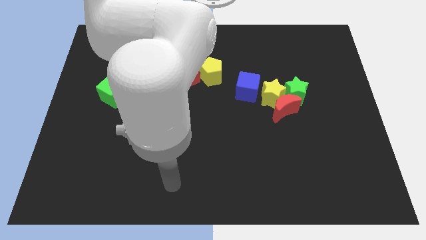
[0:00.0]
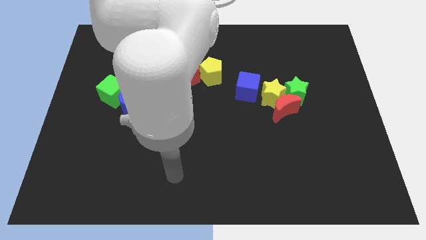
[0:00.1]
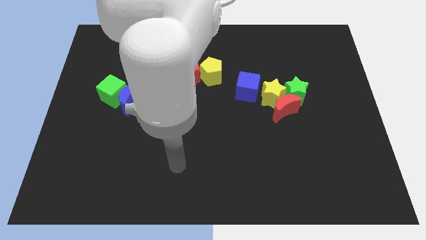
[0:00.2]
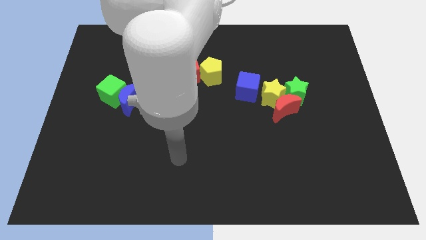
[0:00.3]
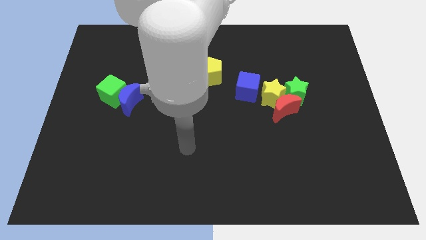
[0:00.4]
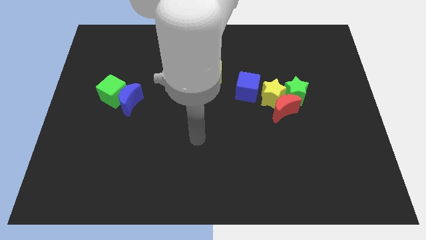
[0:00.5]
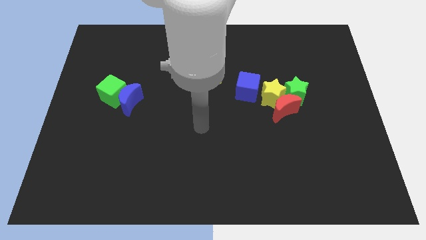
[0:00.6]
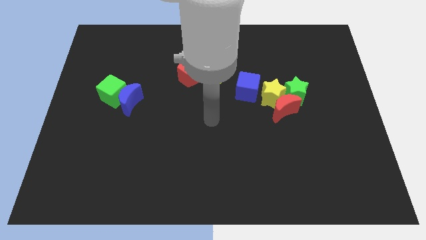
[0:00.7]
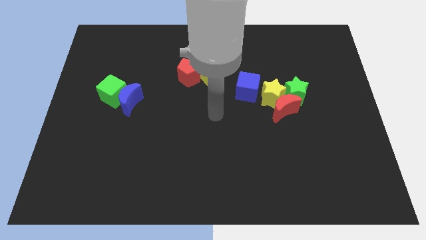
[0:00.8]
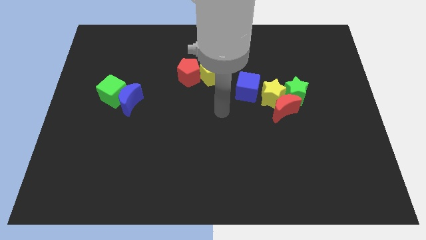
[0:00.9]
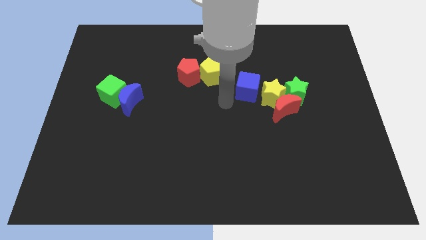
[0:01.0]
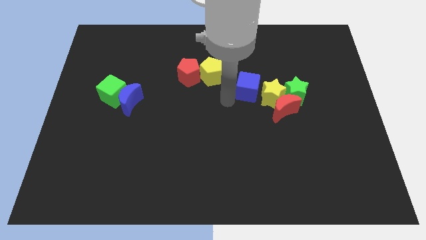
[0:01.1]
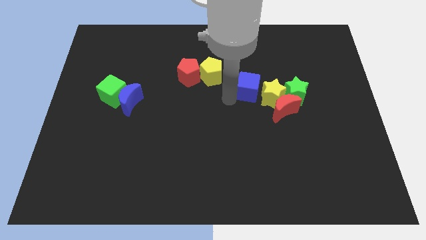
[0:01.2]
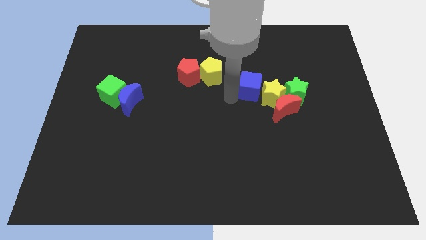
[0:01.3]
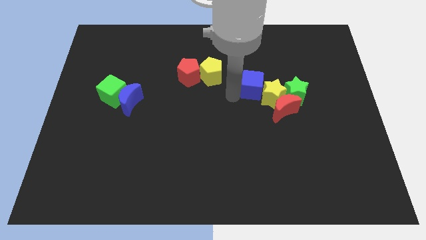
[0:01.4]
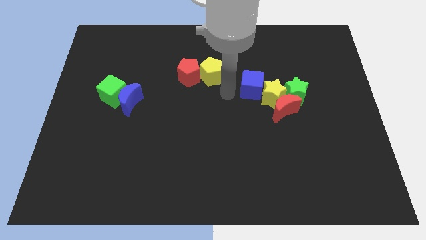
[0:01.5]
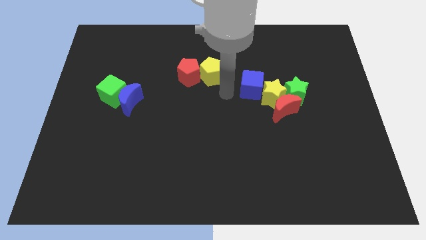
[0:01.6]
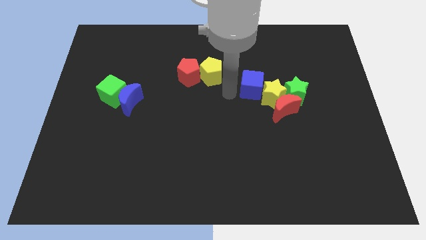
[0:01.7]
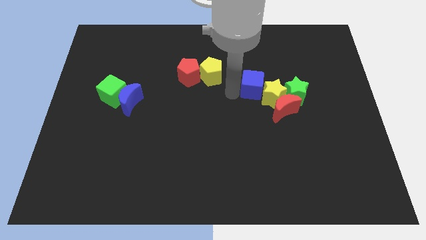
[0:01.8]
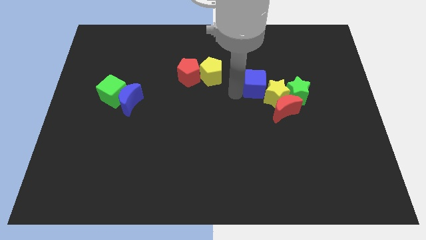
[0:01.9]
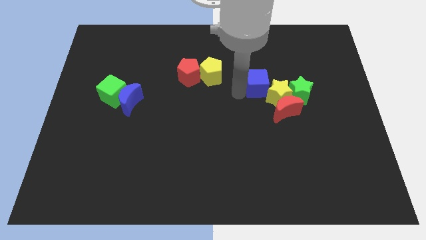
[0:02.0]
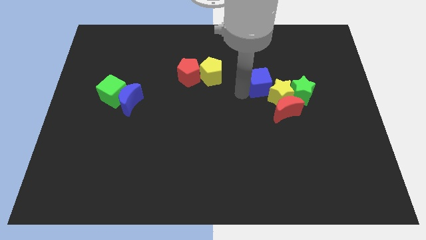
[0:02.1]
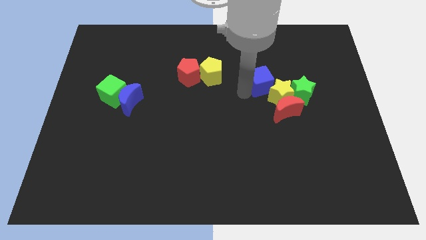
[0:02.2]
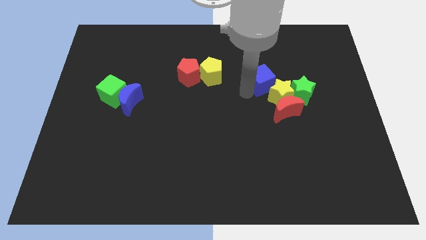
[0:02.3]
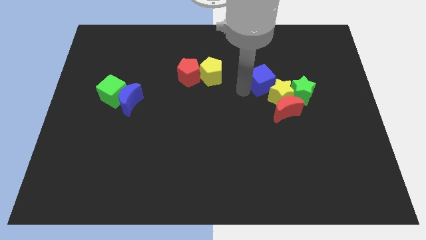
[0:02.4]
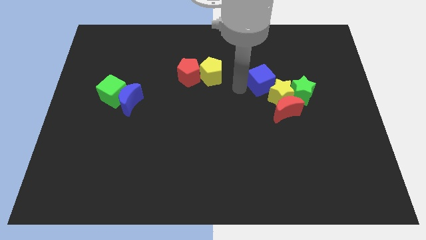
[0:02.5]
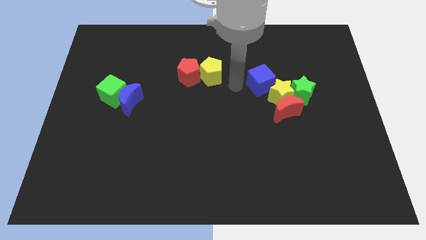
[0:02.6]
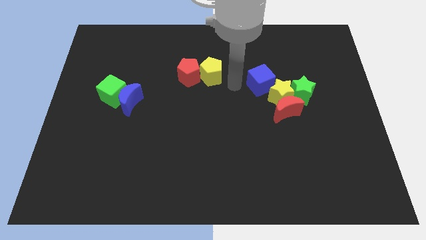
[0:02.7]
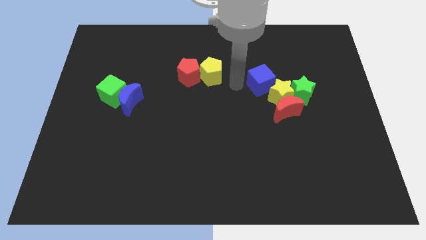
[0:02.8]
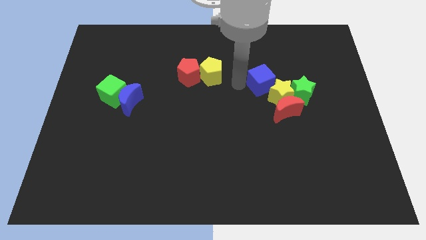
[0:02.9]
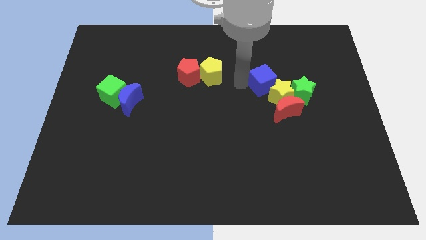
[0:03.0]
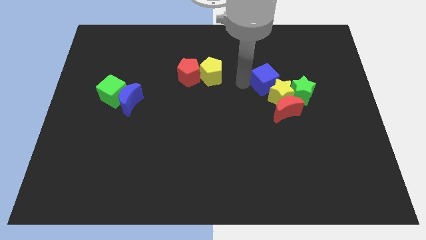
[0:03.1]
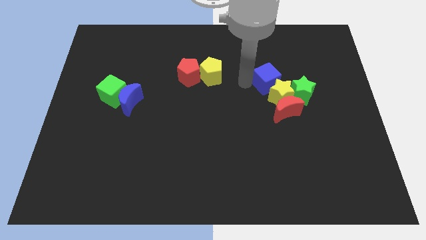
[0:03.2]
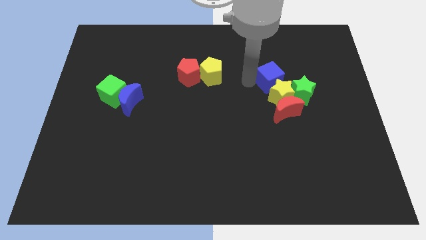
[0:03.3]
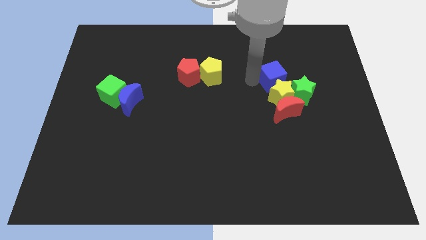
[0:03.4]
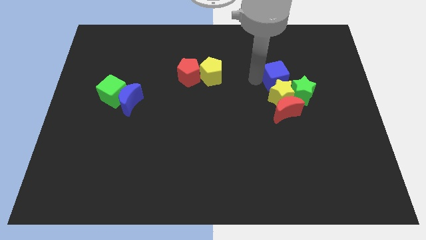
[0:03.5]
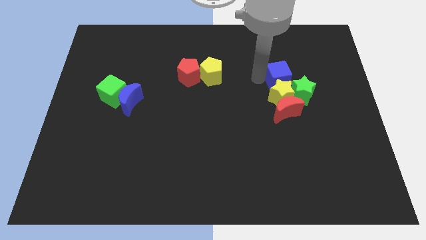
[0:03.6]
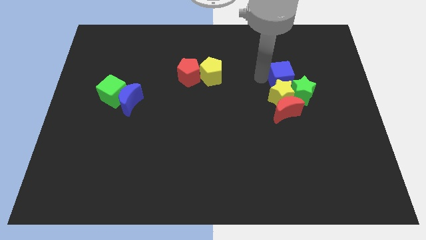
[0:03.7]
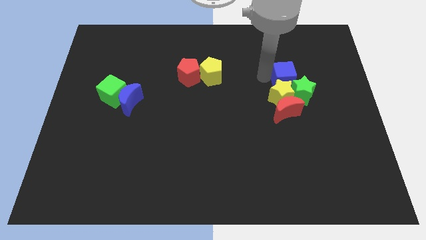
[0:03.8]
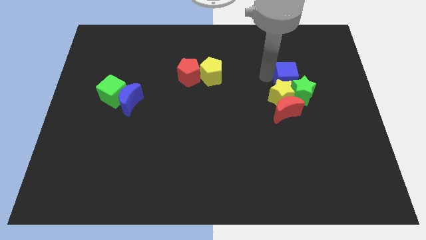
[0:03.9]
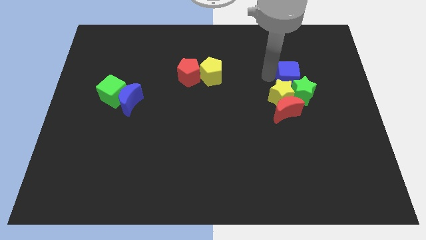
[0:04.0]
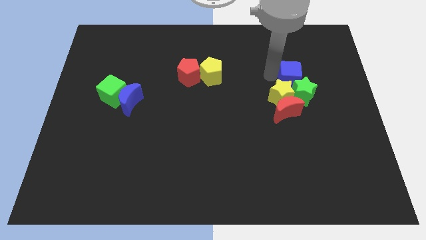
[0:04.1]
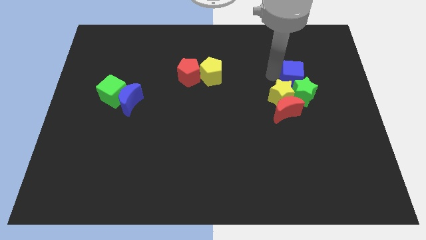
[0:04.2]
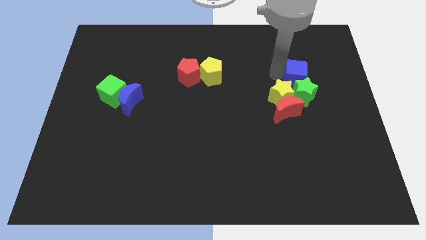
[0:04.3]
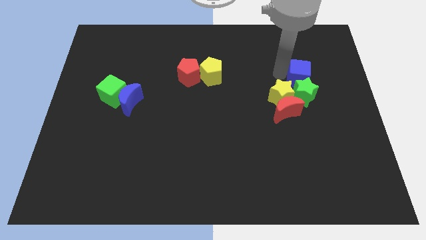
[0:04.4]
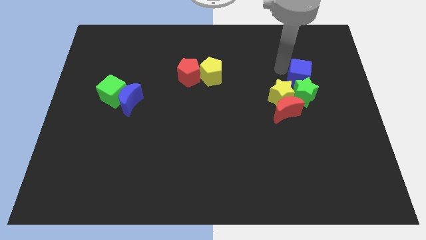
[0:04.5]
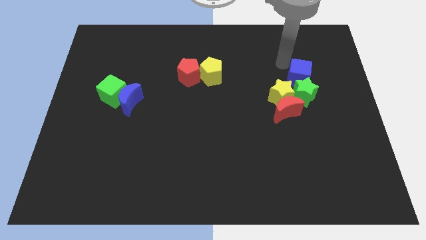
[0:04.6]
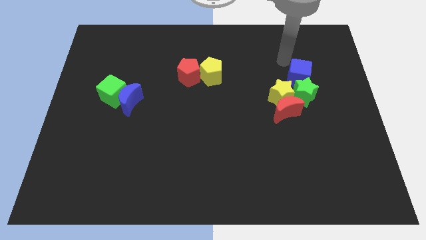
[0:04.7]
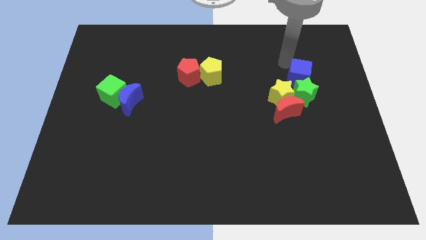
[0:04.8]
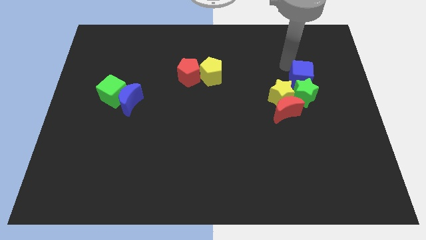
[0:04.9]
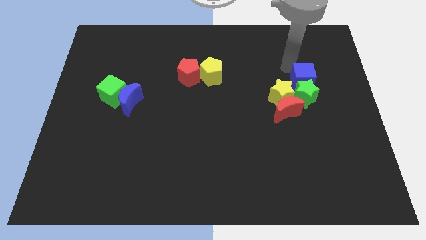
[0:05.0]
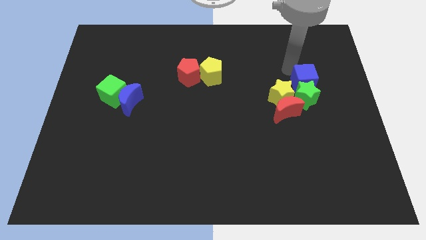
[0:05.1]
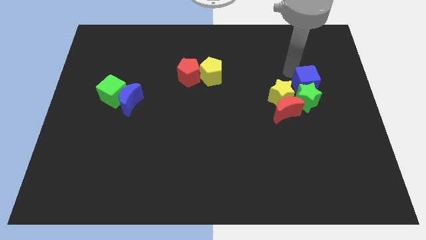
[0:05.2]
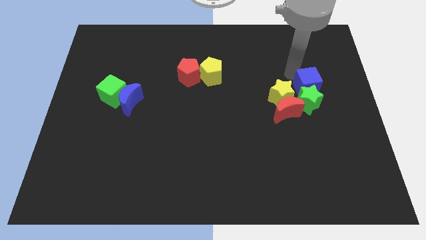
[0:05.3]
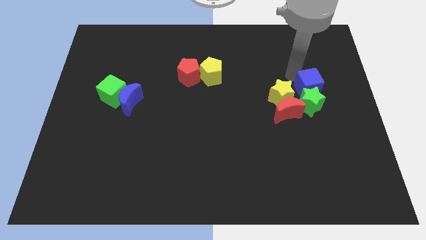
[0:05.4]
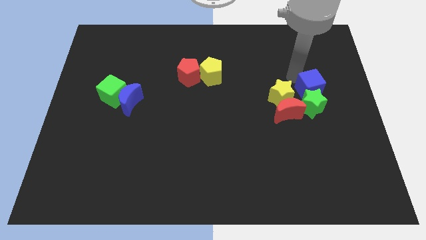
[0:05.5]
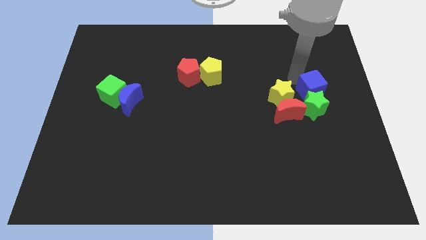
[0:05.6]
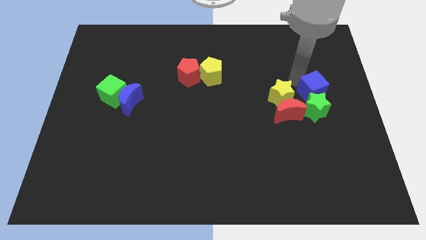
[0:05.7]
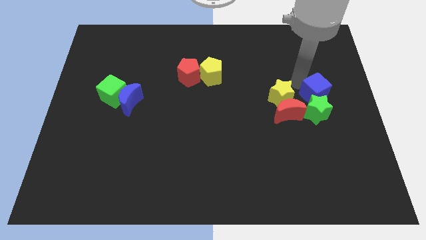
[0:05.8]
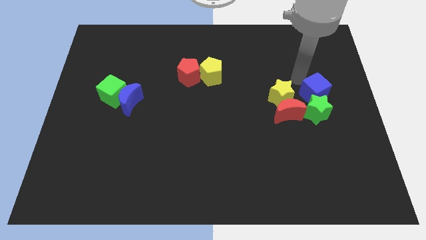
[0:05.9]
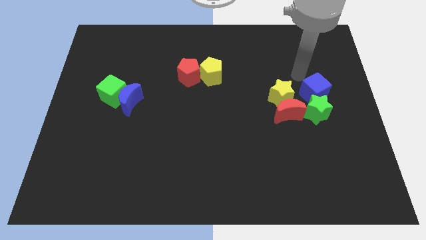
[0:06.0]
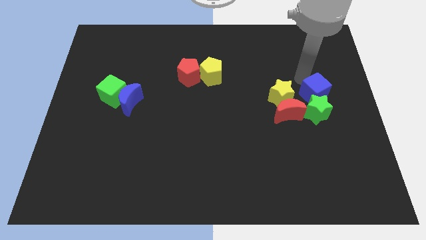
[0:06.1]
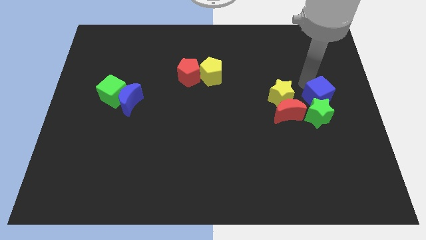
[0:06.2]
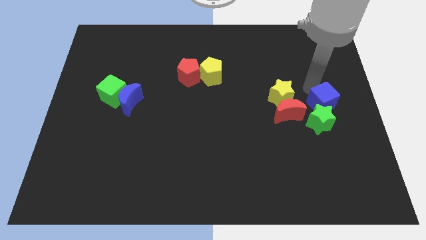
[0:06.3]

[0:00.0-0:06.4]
slide the blue cube right of the red moon

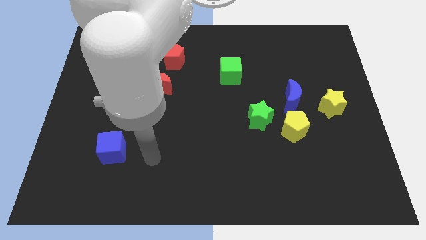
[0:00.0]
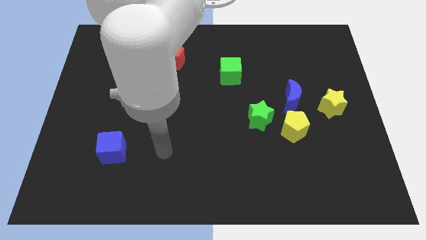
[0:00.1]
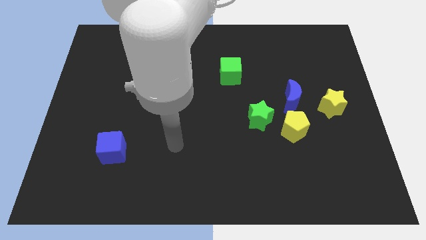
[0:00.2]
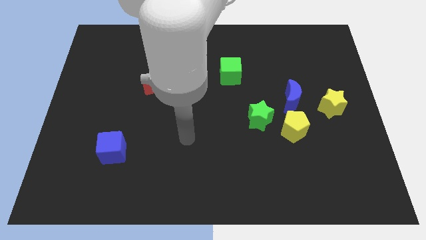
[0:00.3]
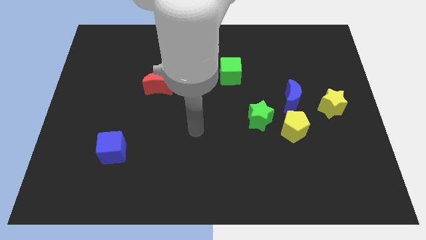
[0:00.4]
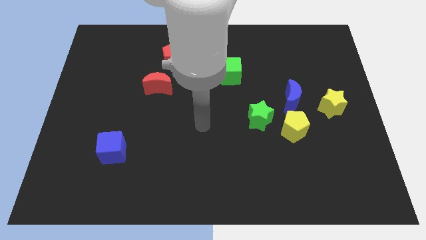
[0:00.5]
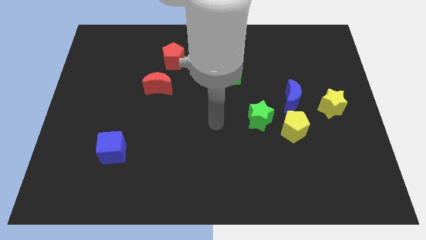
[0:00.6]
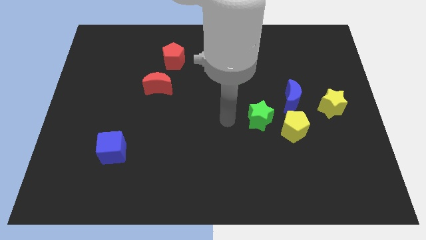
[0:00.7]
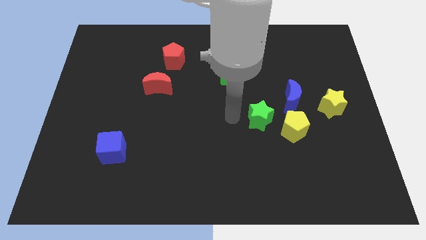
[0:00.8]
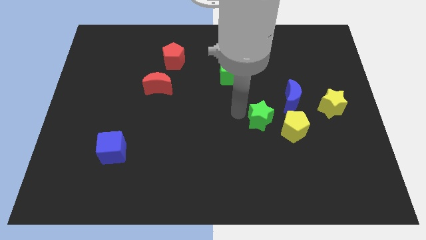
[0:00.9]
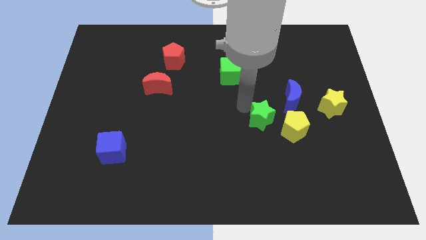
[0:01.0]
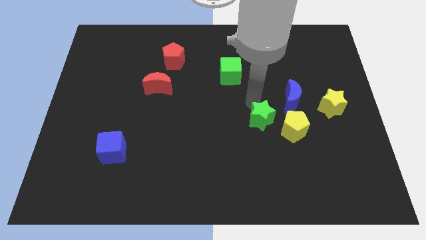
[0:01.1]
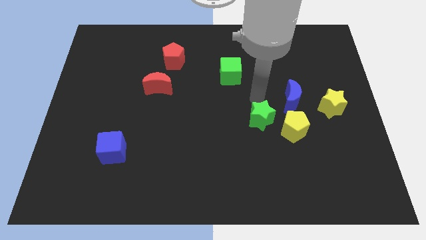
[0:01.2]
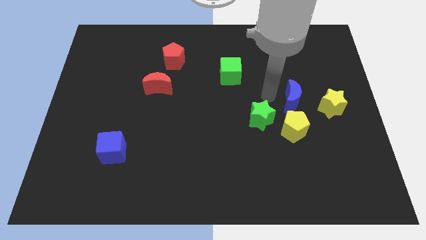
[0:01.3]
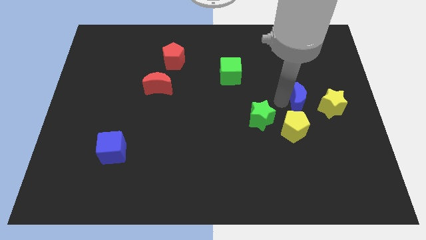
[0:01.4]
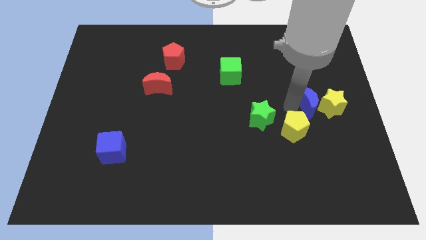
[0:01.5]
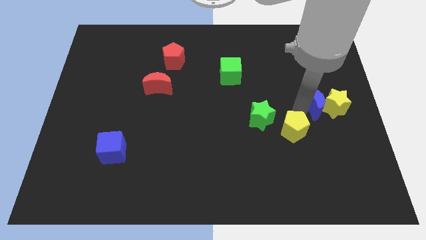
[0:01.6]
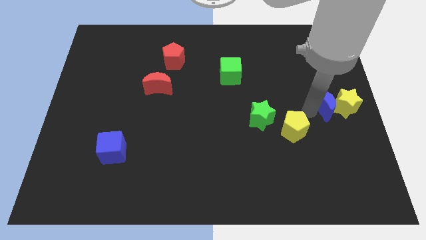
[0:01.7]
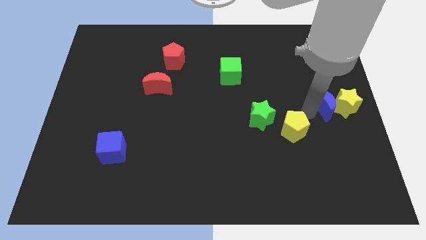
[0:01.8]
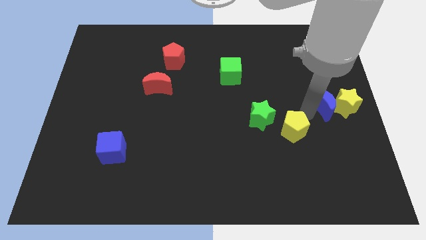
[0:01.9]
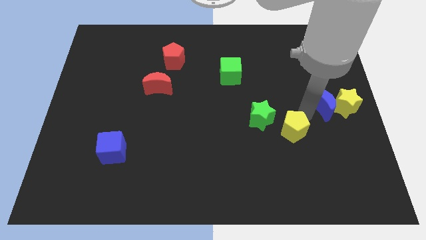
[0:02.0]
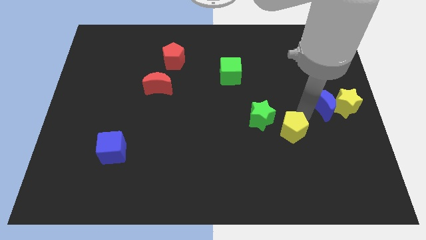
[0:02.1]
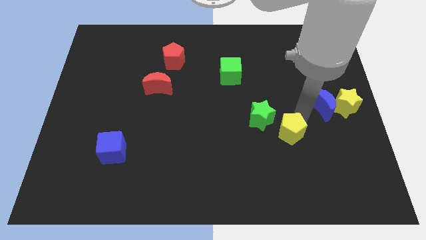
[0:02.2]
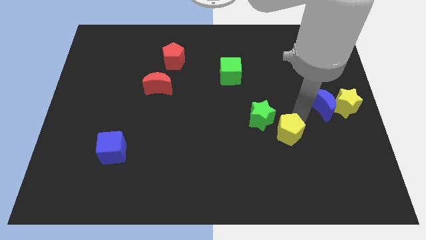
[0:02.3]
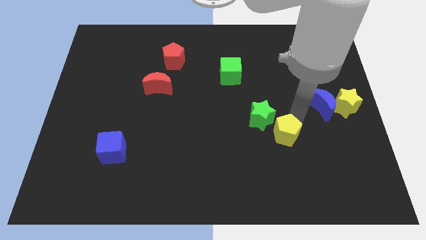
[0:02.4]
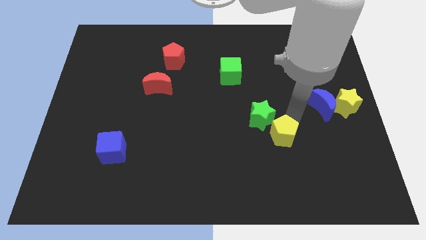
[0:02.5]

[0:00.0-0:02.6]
move the yellow pentagon below the green star

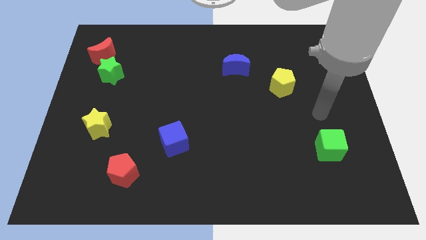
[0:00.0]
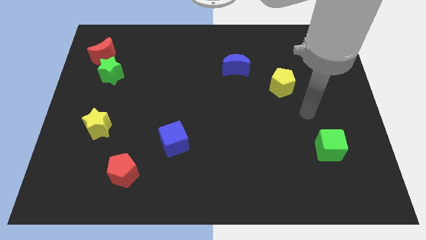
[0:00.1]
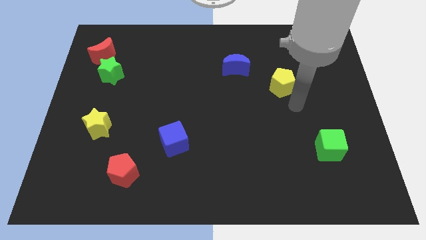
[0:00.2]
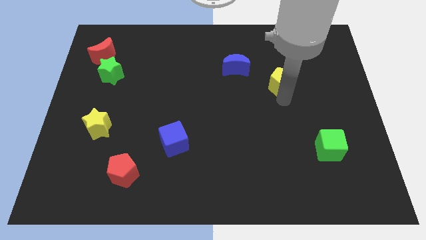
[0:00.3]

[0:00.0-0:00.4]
slide the blue moon to the top left side of the yellow pentagon
